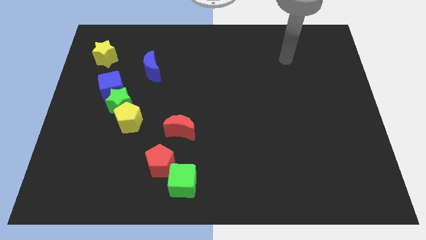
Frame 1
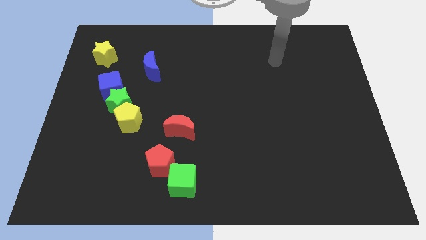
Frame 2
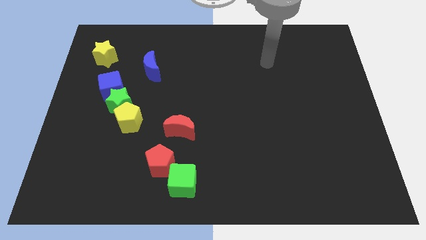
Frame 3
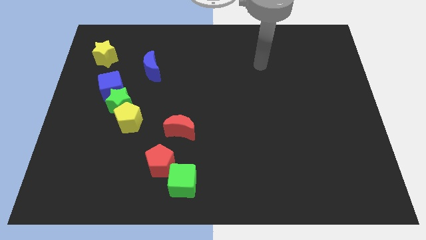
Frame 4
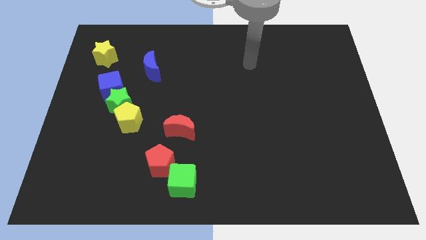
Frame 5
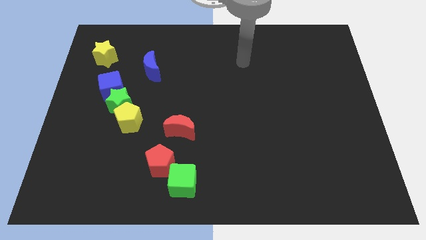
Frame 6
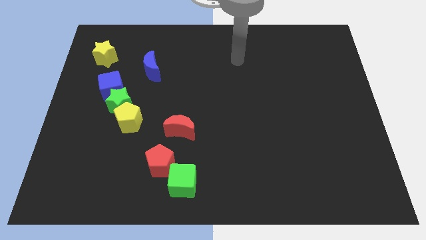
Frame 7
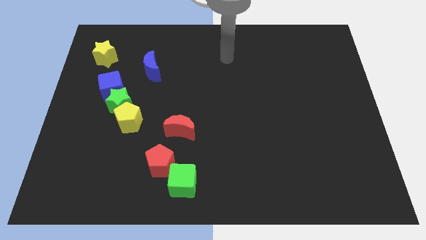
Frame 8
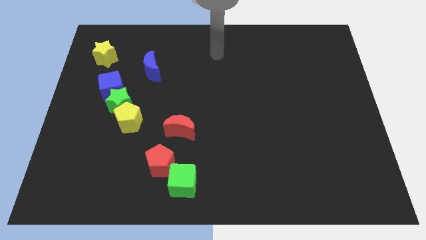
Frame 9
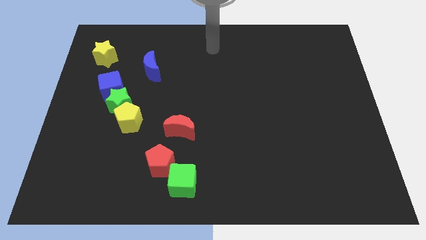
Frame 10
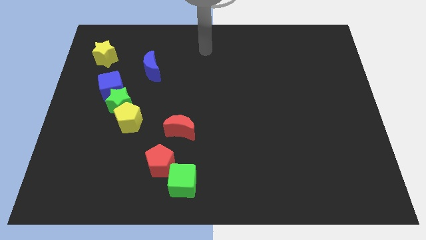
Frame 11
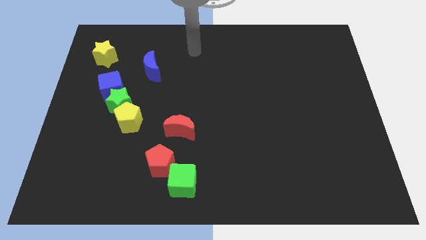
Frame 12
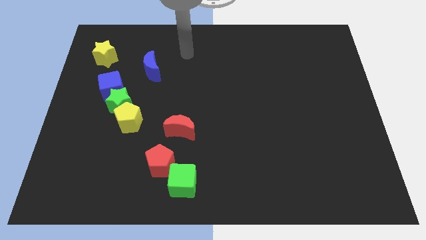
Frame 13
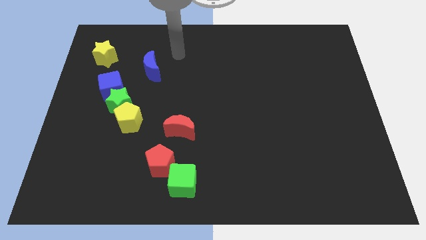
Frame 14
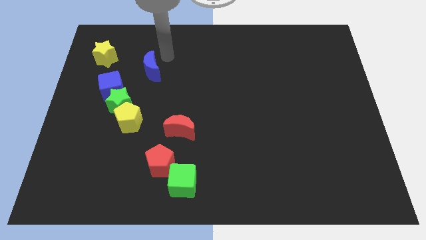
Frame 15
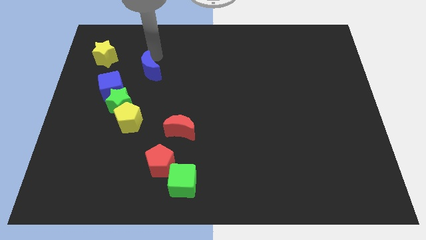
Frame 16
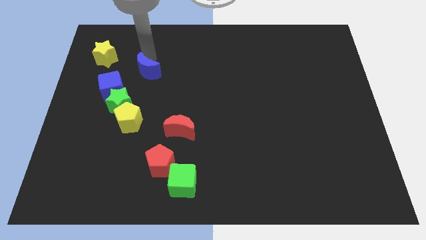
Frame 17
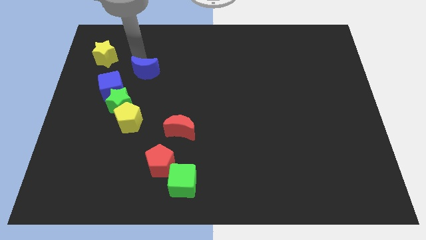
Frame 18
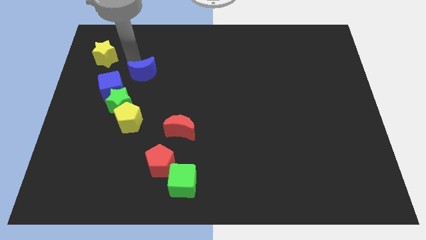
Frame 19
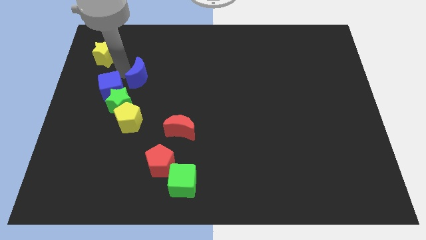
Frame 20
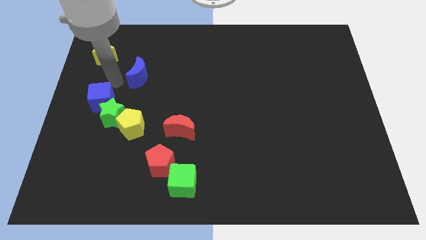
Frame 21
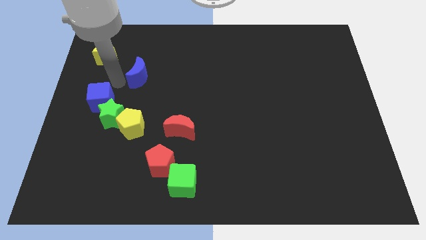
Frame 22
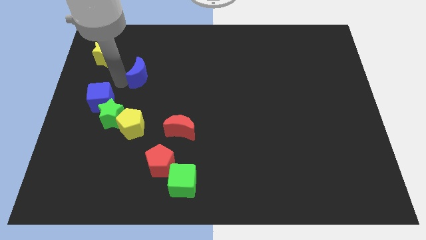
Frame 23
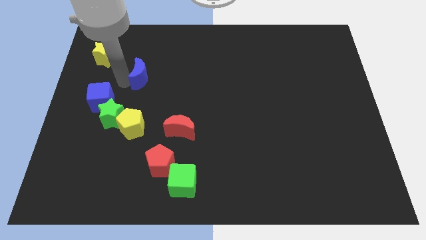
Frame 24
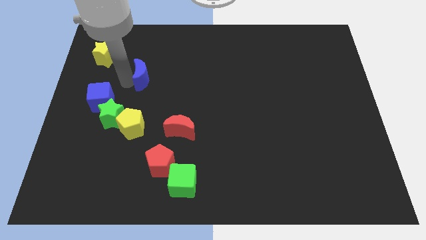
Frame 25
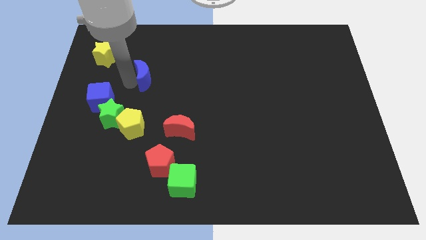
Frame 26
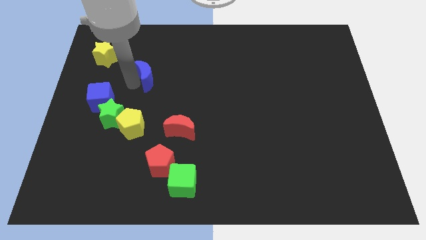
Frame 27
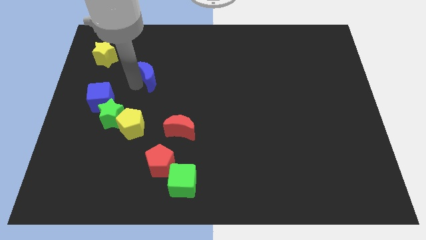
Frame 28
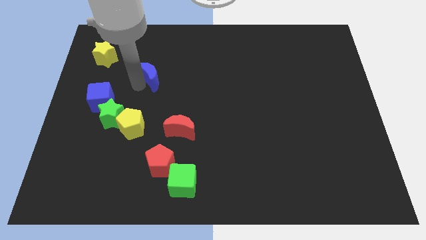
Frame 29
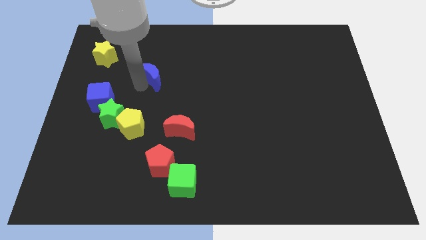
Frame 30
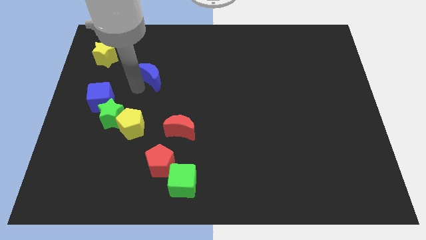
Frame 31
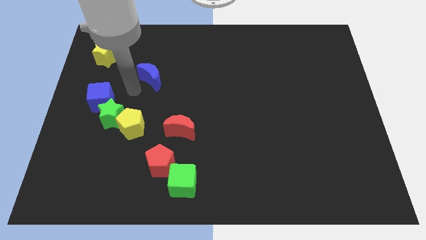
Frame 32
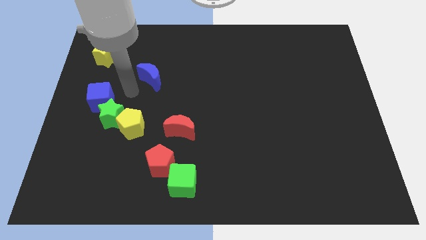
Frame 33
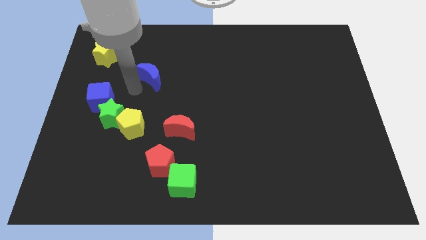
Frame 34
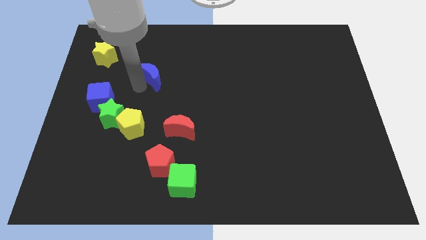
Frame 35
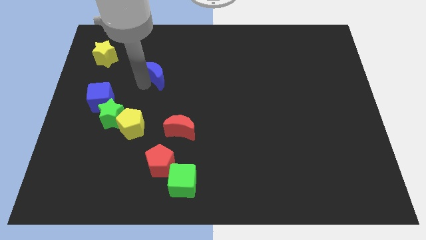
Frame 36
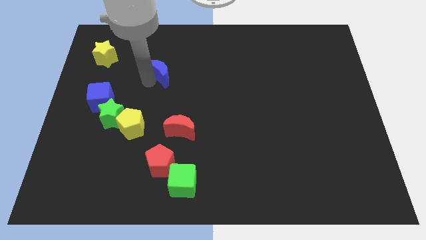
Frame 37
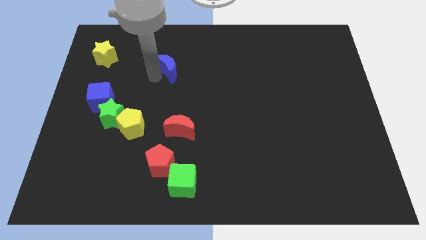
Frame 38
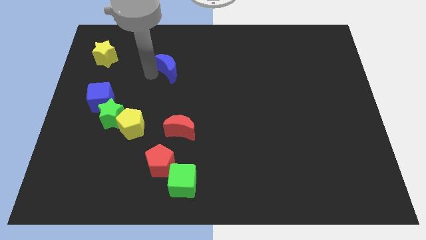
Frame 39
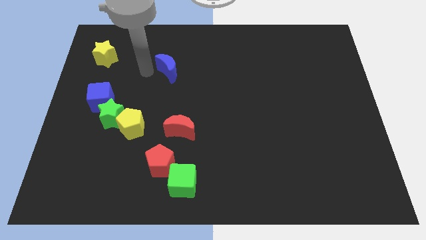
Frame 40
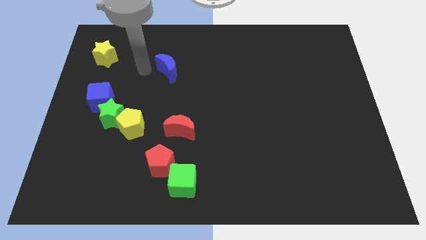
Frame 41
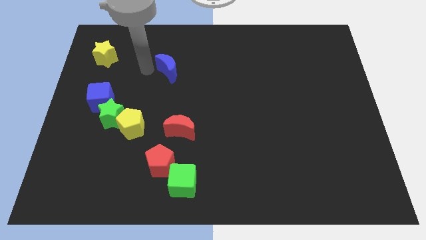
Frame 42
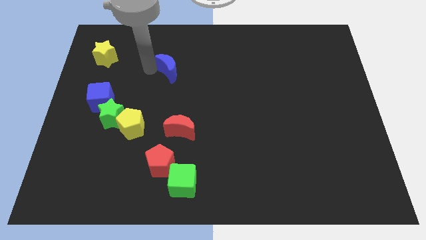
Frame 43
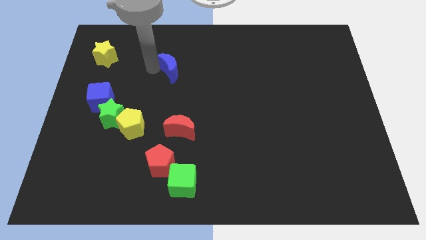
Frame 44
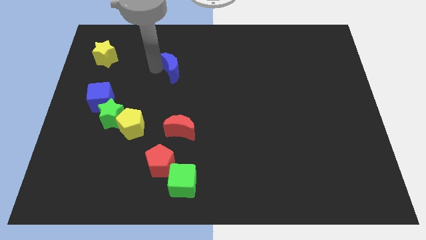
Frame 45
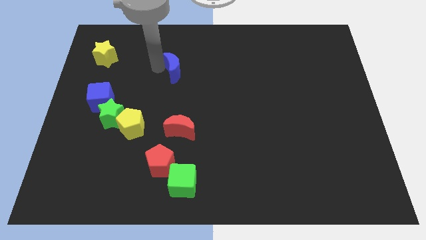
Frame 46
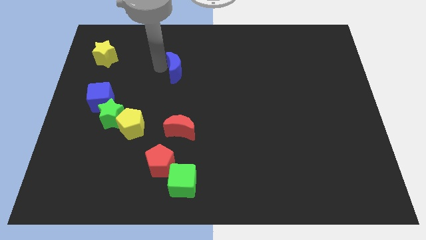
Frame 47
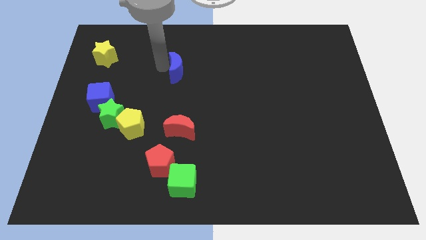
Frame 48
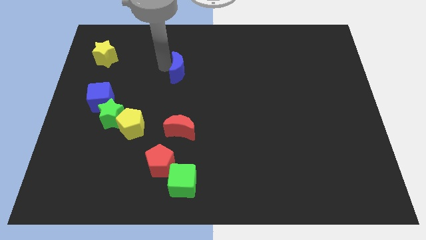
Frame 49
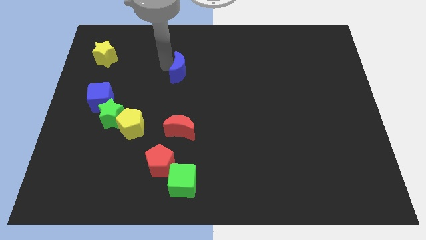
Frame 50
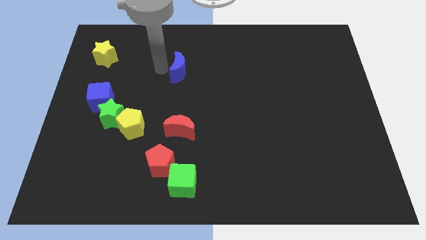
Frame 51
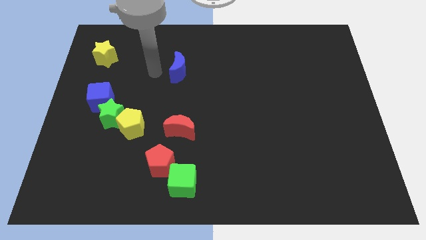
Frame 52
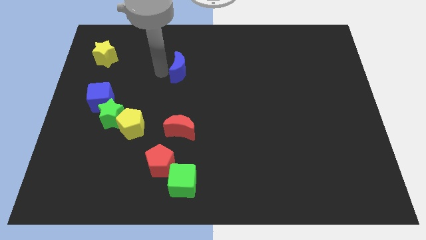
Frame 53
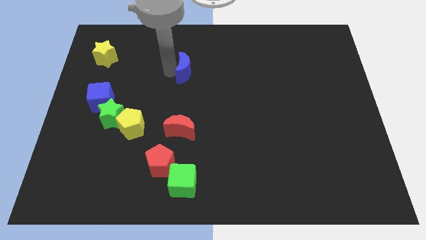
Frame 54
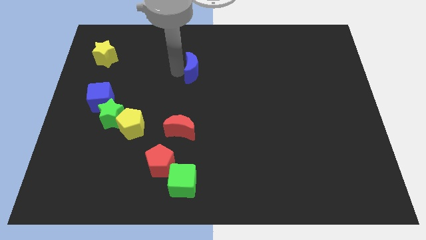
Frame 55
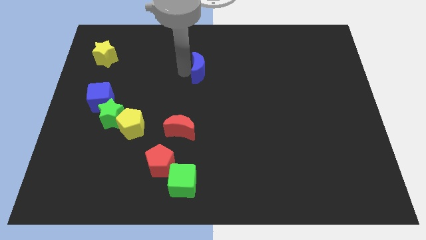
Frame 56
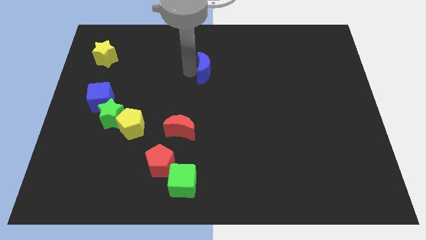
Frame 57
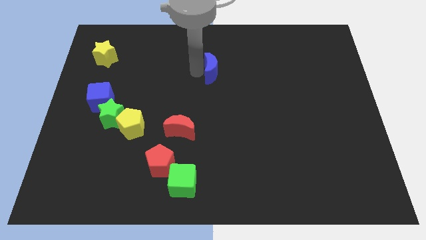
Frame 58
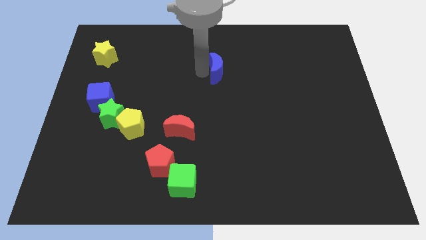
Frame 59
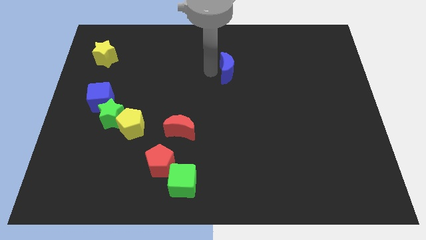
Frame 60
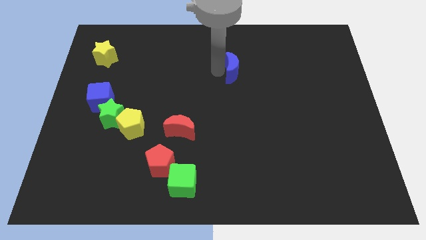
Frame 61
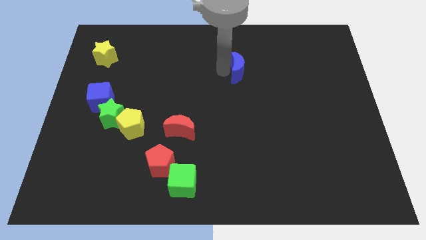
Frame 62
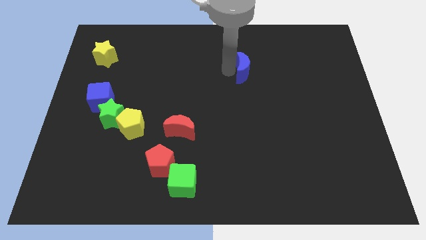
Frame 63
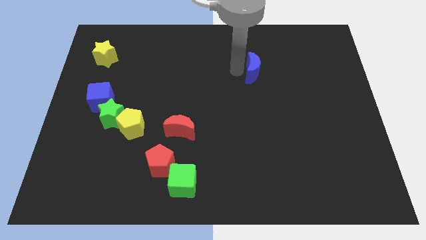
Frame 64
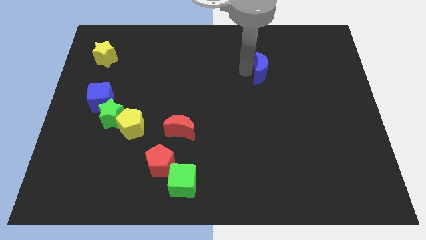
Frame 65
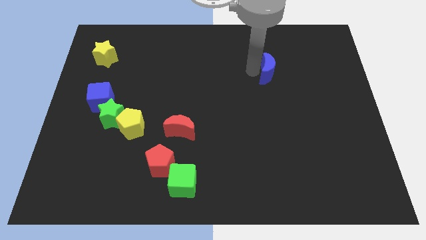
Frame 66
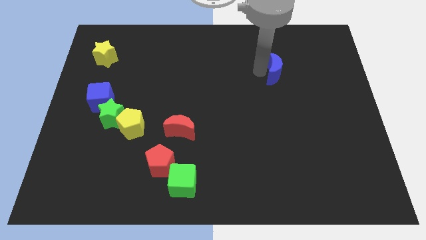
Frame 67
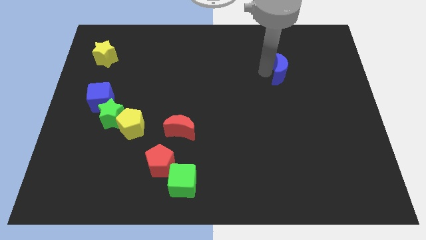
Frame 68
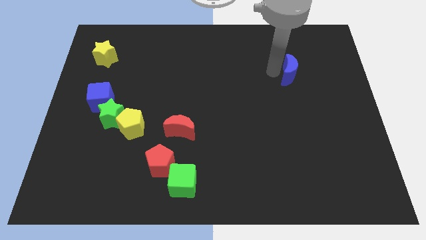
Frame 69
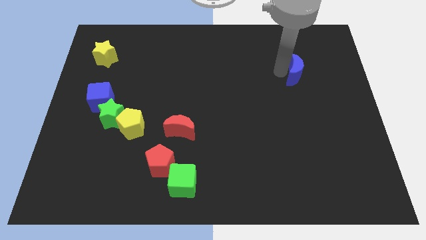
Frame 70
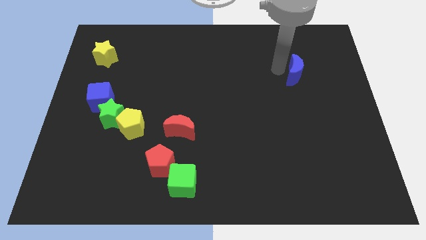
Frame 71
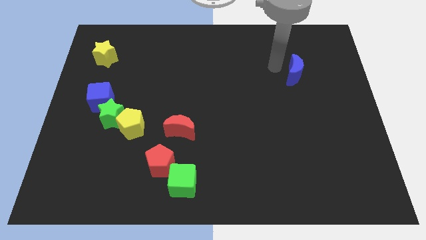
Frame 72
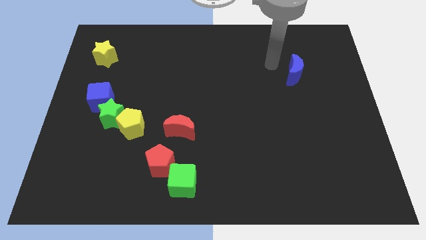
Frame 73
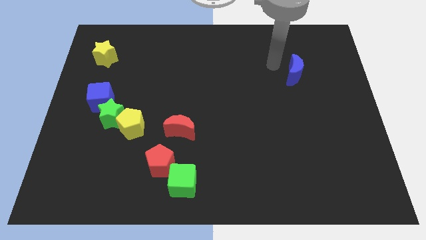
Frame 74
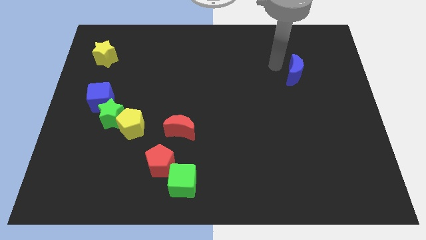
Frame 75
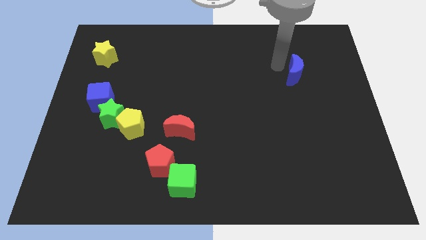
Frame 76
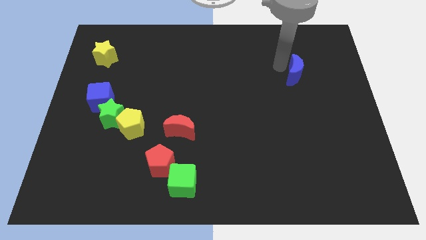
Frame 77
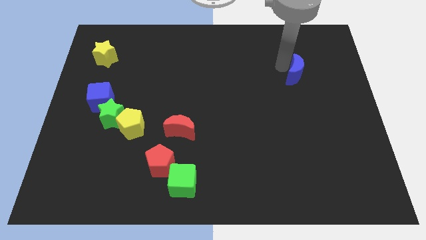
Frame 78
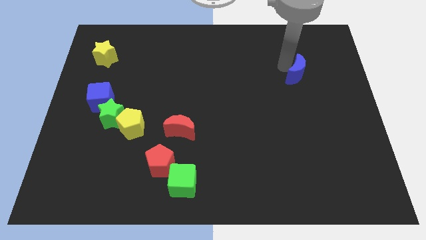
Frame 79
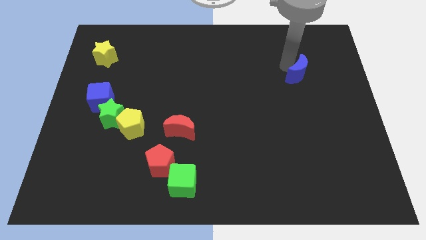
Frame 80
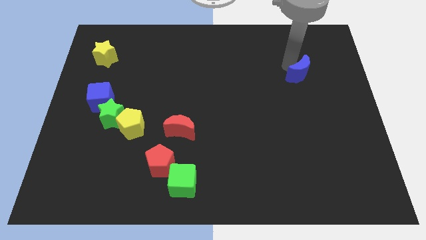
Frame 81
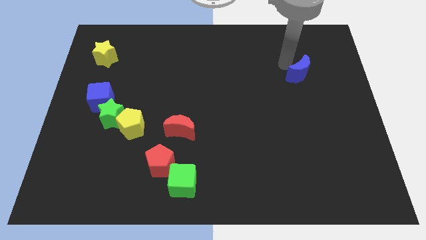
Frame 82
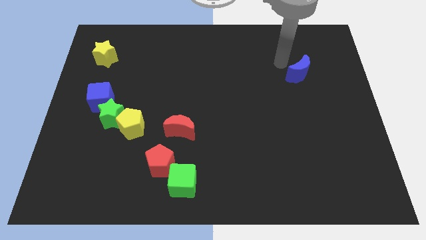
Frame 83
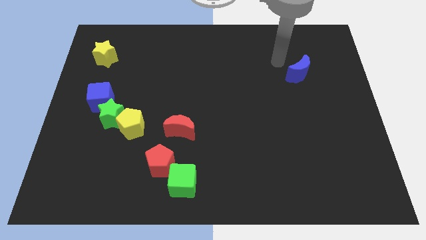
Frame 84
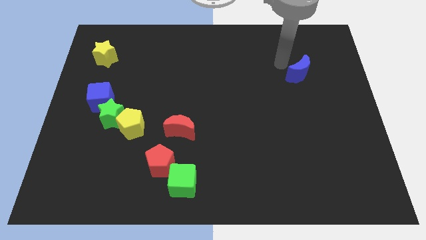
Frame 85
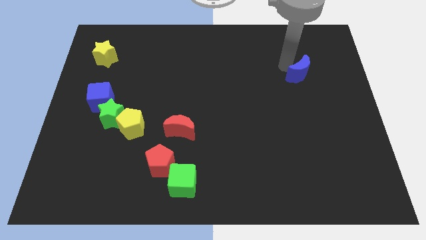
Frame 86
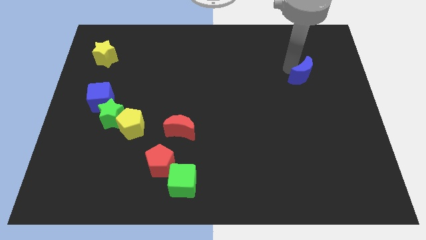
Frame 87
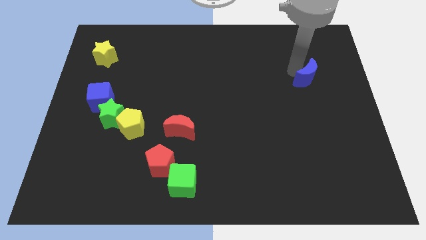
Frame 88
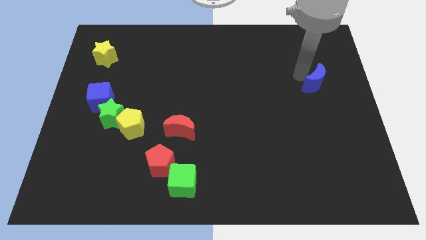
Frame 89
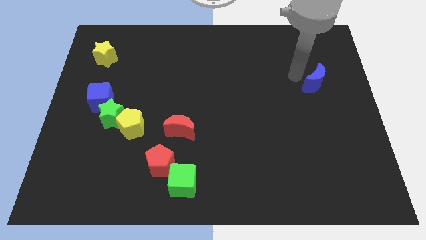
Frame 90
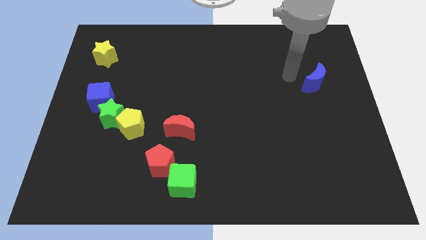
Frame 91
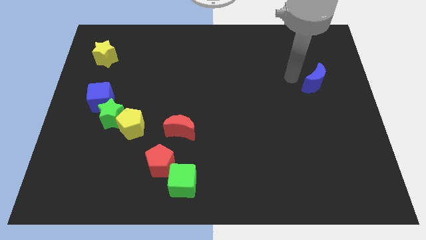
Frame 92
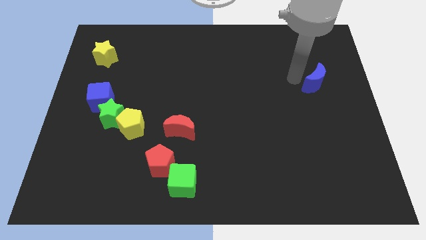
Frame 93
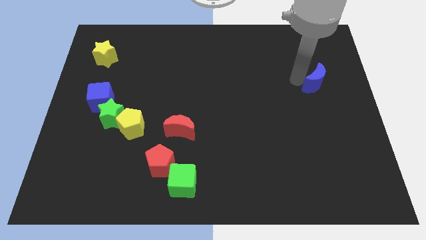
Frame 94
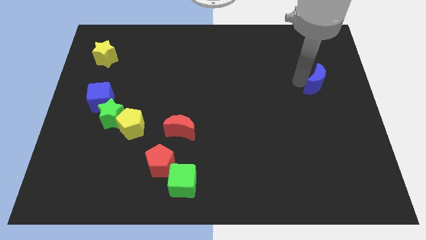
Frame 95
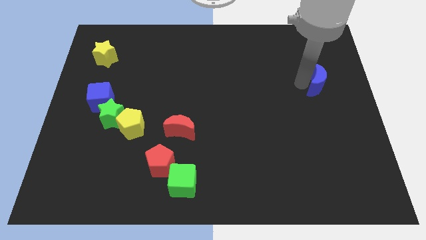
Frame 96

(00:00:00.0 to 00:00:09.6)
put the blue moon to the center right
